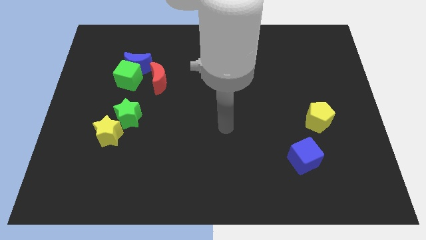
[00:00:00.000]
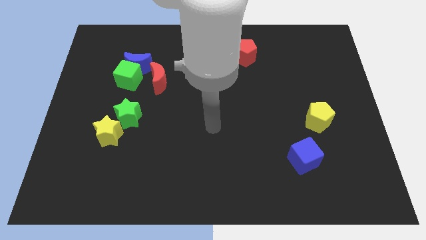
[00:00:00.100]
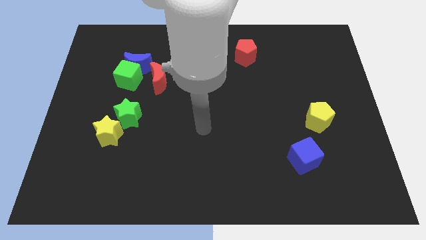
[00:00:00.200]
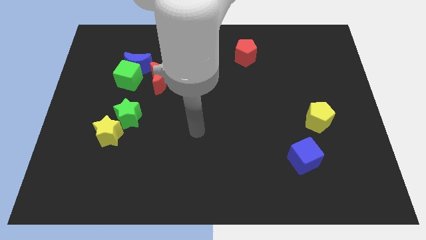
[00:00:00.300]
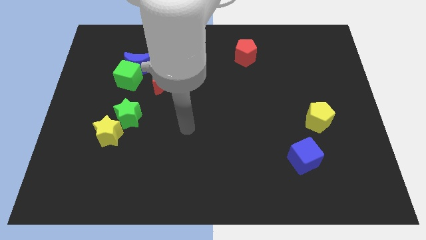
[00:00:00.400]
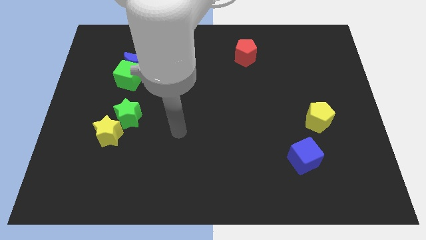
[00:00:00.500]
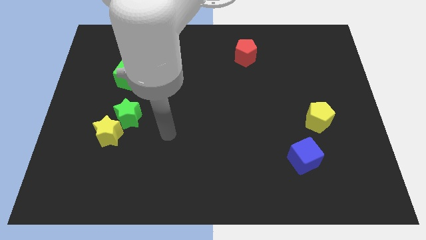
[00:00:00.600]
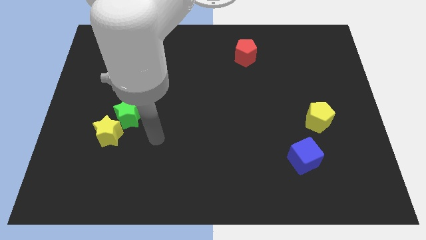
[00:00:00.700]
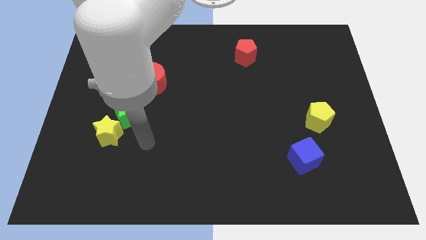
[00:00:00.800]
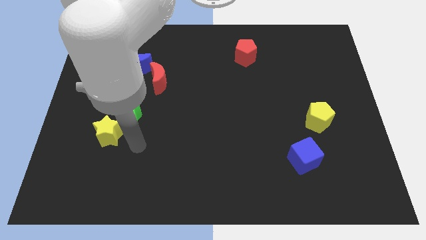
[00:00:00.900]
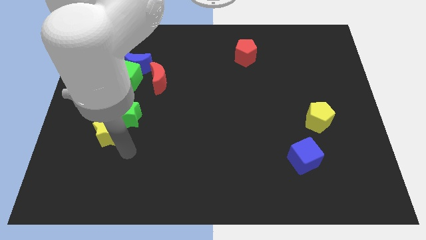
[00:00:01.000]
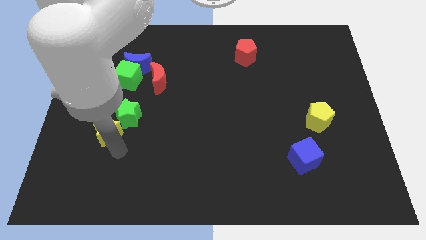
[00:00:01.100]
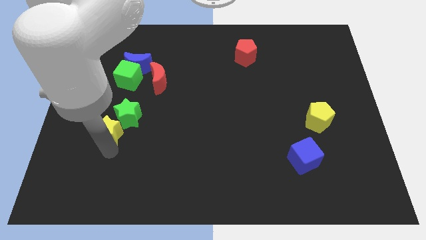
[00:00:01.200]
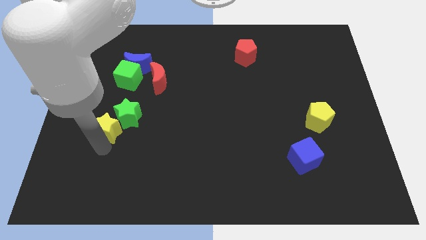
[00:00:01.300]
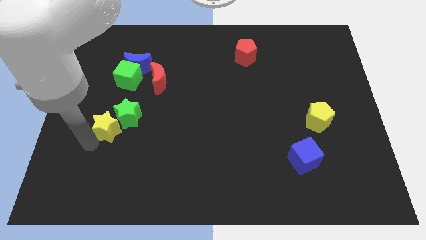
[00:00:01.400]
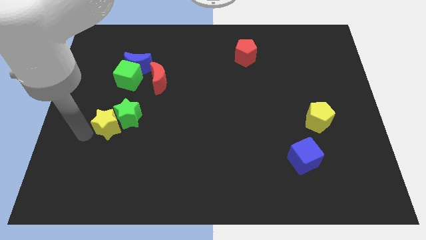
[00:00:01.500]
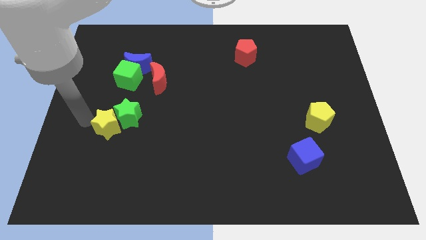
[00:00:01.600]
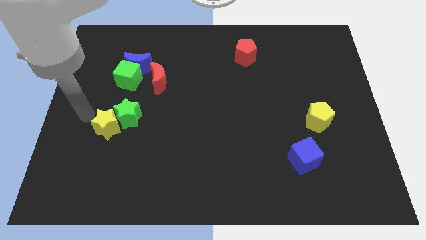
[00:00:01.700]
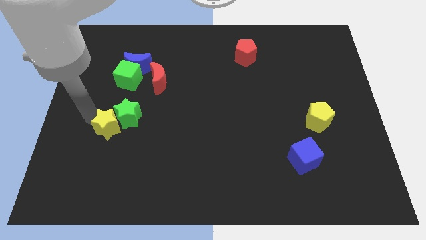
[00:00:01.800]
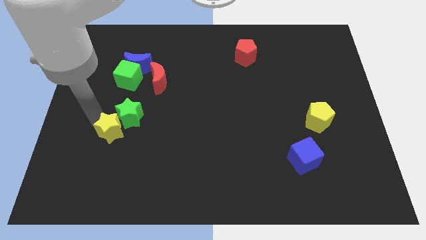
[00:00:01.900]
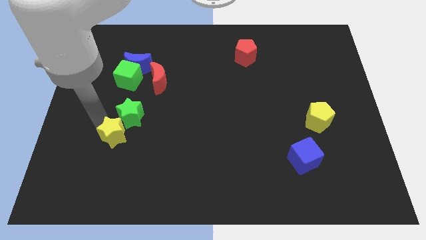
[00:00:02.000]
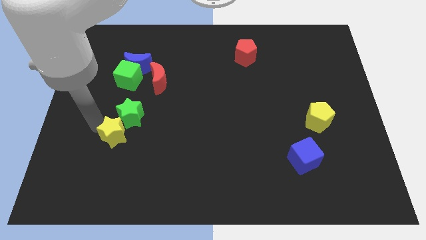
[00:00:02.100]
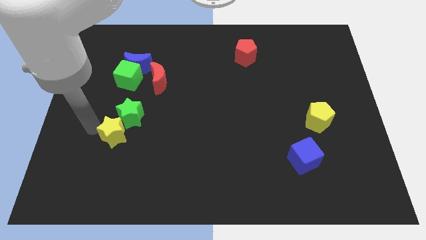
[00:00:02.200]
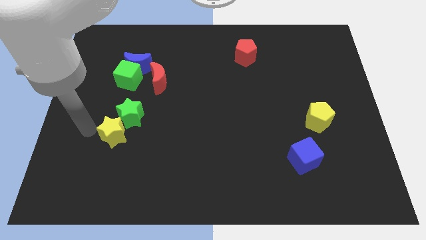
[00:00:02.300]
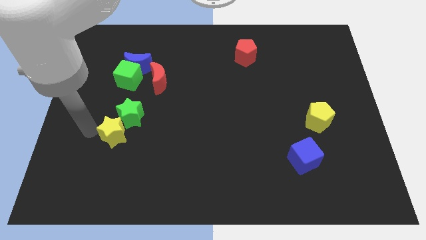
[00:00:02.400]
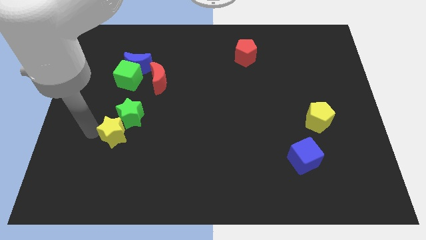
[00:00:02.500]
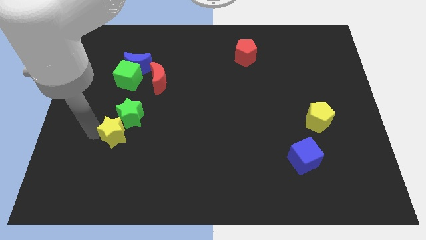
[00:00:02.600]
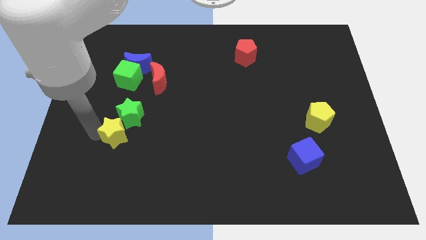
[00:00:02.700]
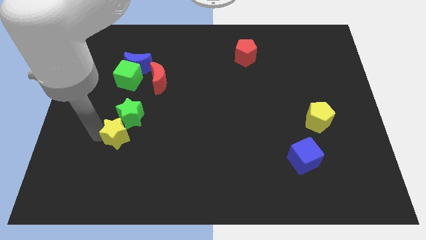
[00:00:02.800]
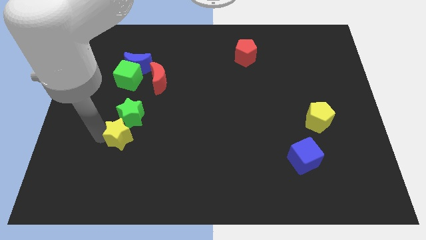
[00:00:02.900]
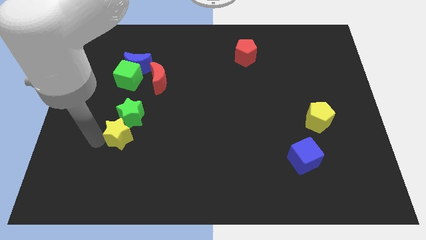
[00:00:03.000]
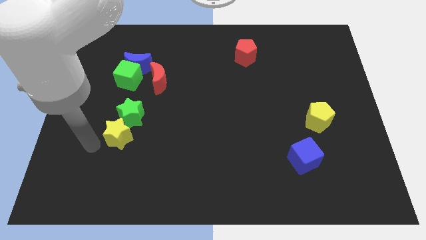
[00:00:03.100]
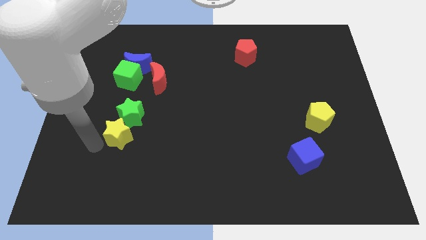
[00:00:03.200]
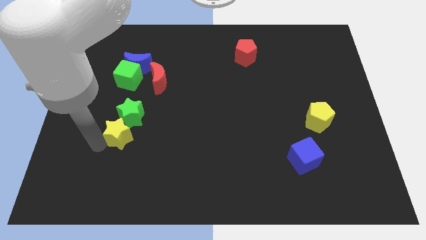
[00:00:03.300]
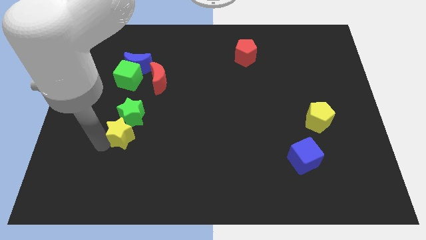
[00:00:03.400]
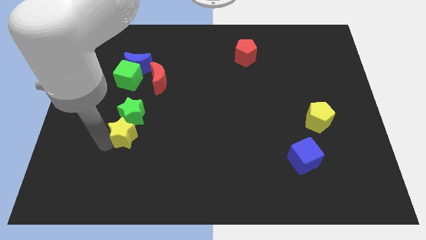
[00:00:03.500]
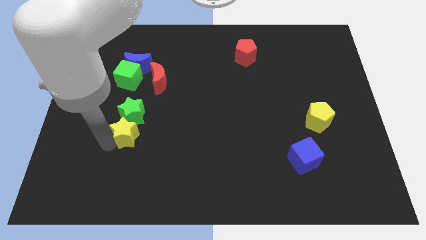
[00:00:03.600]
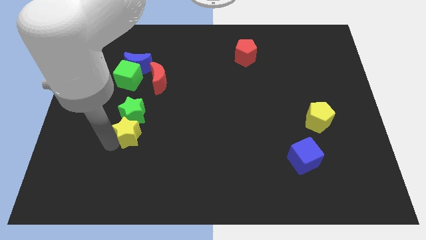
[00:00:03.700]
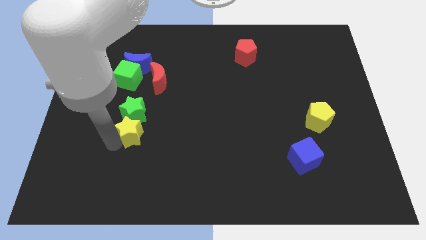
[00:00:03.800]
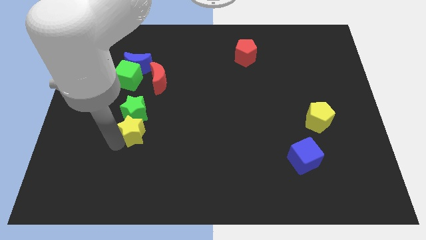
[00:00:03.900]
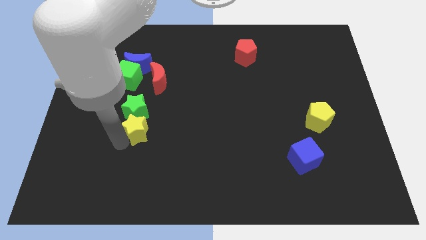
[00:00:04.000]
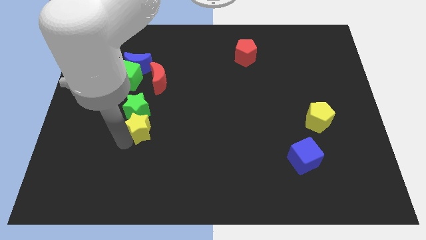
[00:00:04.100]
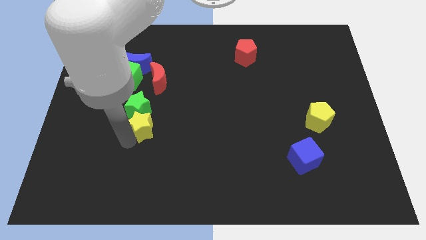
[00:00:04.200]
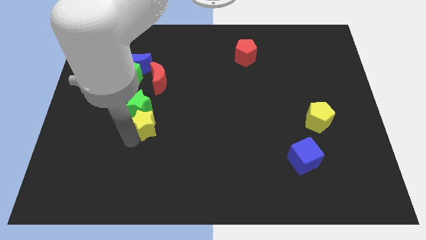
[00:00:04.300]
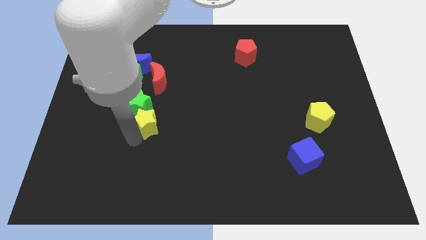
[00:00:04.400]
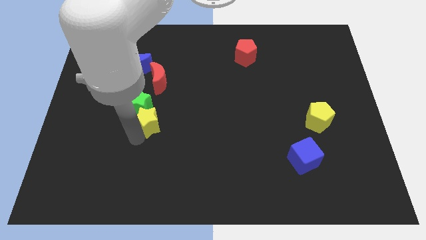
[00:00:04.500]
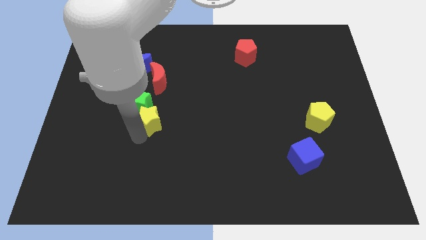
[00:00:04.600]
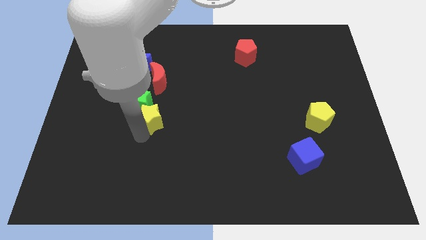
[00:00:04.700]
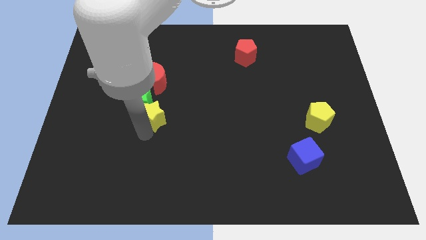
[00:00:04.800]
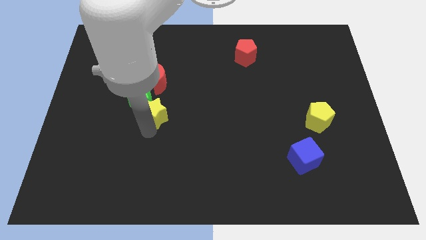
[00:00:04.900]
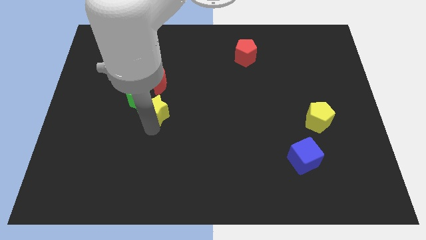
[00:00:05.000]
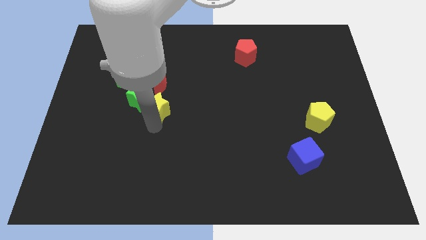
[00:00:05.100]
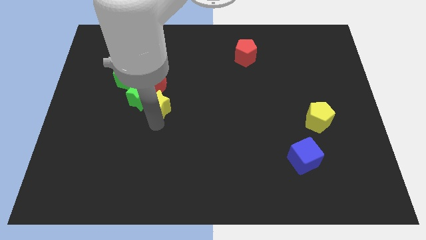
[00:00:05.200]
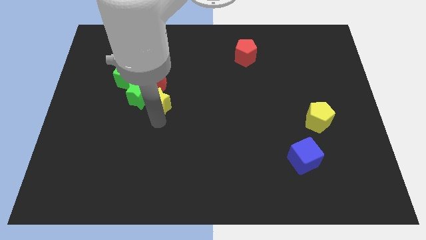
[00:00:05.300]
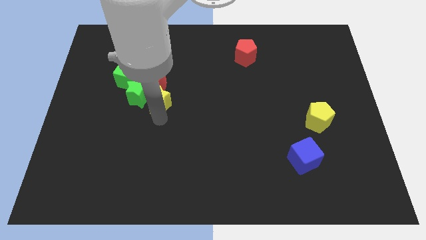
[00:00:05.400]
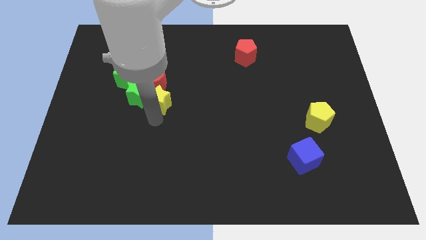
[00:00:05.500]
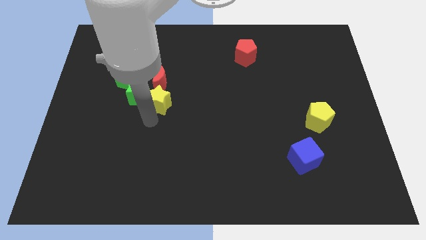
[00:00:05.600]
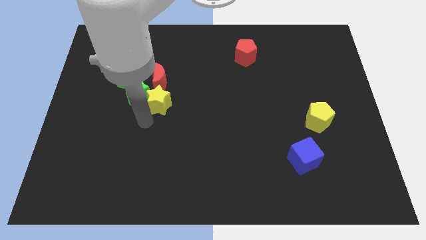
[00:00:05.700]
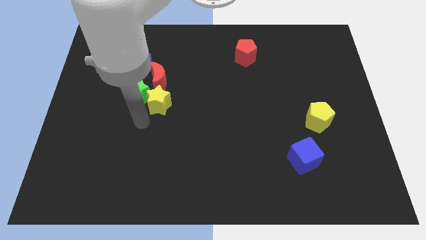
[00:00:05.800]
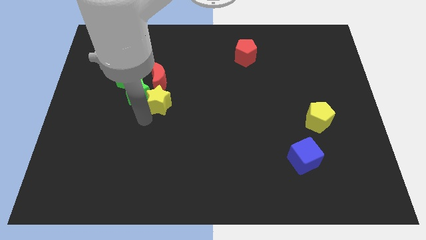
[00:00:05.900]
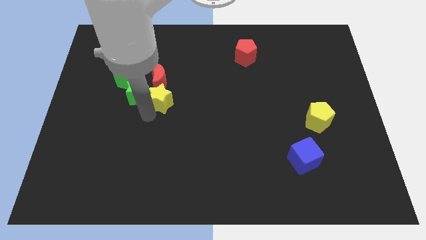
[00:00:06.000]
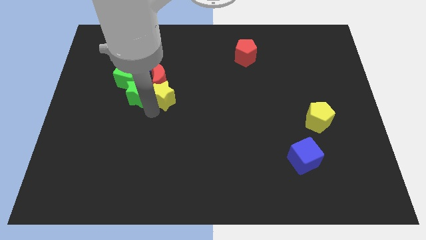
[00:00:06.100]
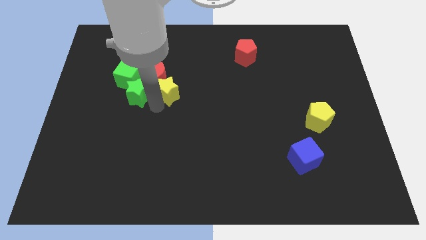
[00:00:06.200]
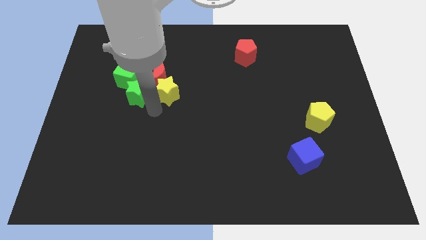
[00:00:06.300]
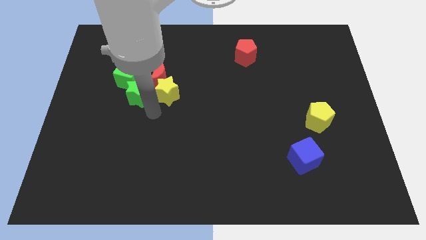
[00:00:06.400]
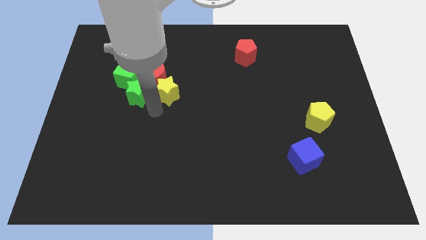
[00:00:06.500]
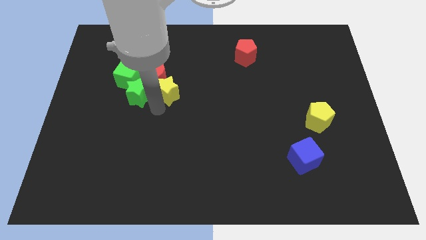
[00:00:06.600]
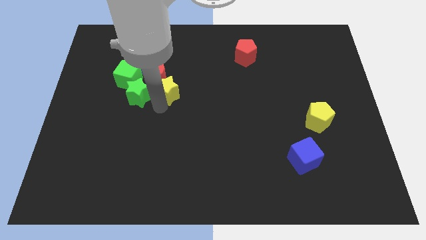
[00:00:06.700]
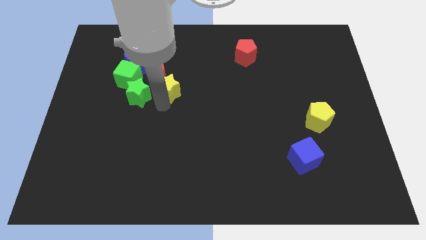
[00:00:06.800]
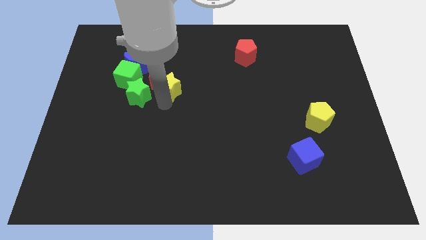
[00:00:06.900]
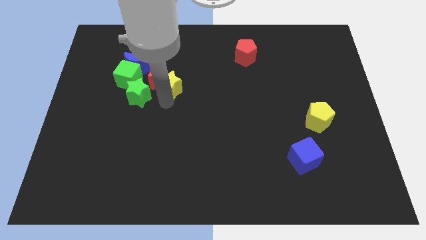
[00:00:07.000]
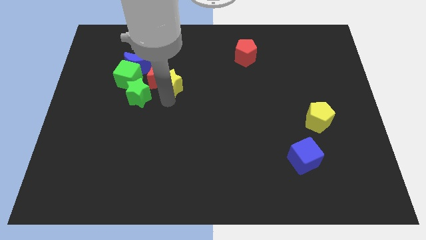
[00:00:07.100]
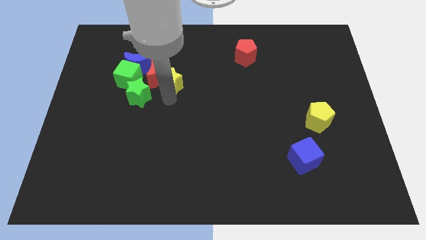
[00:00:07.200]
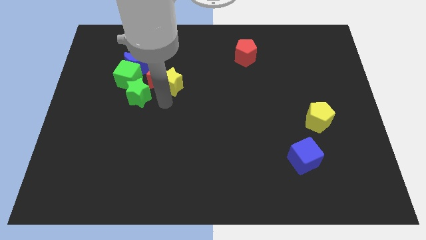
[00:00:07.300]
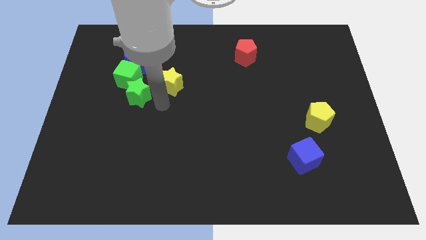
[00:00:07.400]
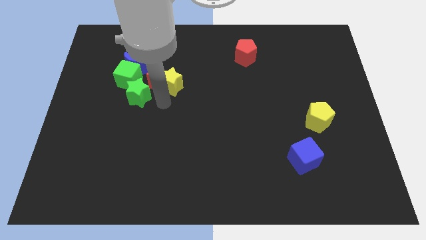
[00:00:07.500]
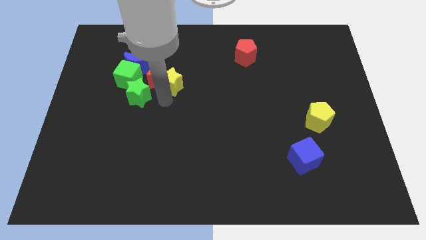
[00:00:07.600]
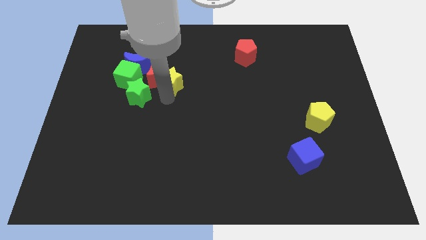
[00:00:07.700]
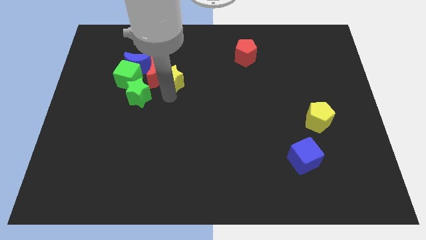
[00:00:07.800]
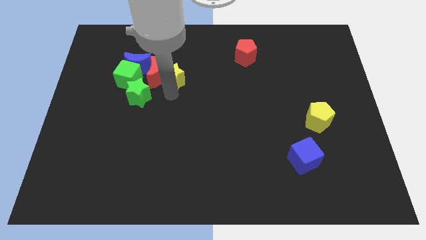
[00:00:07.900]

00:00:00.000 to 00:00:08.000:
slide the yellow star to the right side of the blue moon
